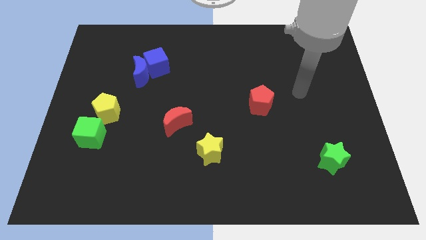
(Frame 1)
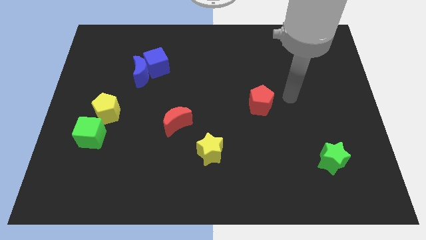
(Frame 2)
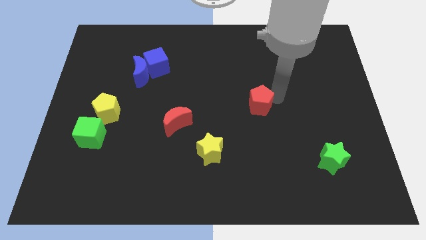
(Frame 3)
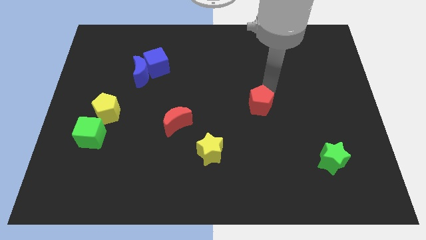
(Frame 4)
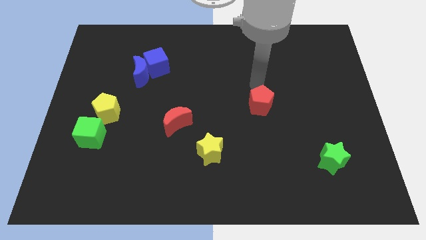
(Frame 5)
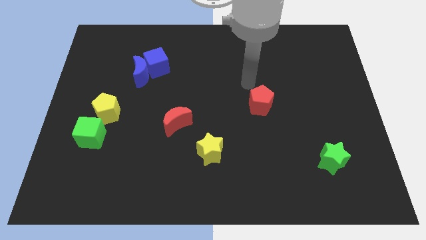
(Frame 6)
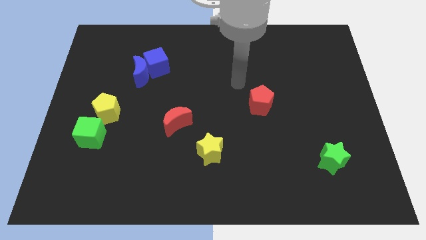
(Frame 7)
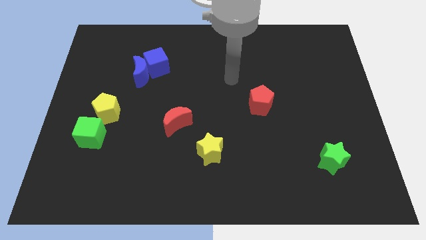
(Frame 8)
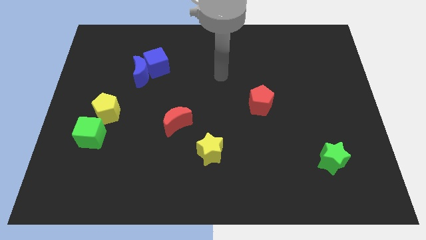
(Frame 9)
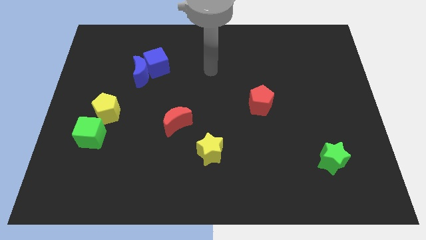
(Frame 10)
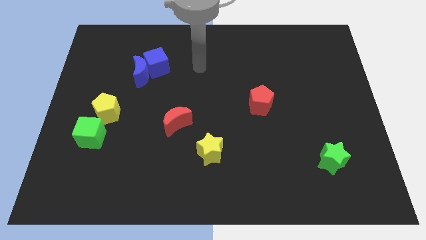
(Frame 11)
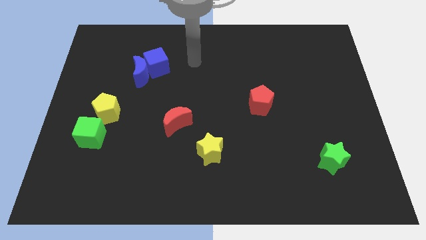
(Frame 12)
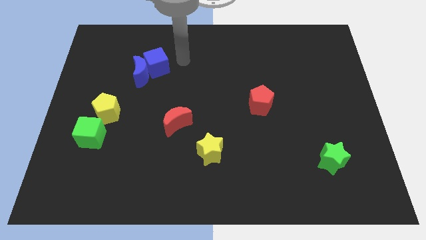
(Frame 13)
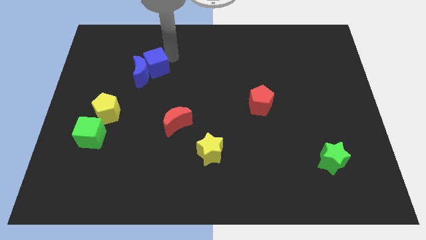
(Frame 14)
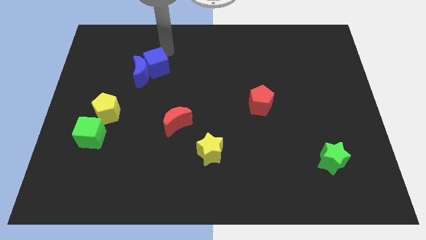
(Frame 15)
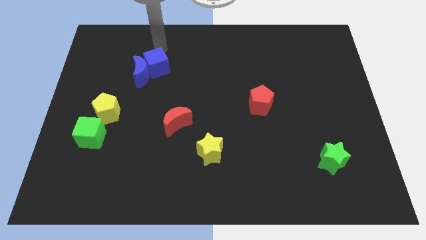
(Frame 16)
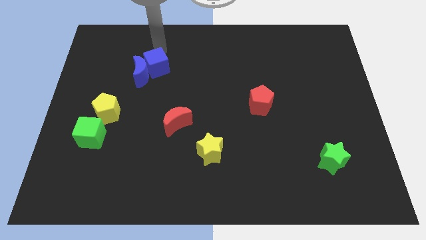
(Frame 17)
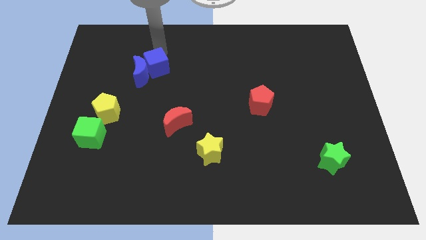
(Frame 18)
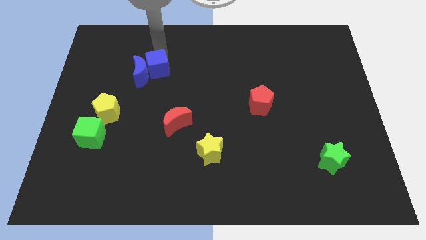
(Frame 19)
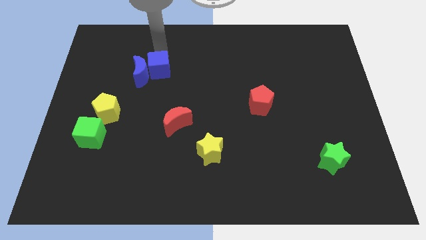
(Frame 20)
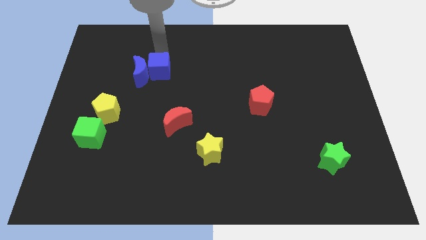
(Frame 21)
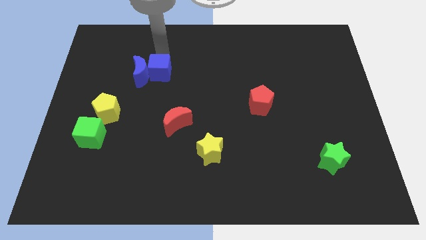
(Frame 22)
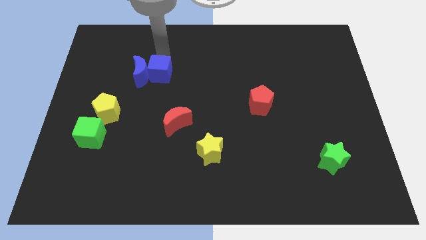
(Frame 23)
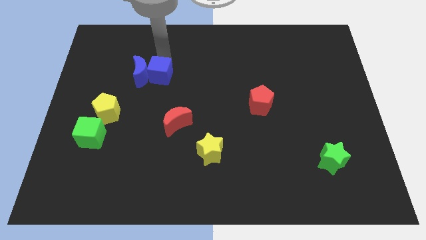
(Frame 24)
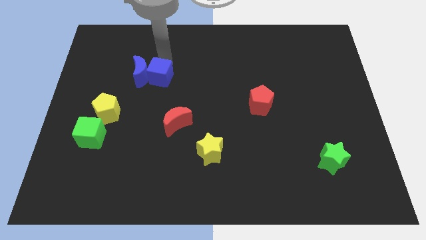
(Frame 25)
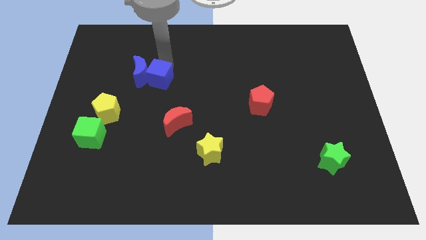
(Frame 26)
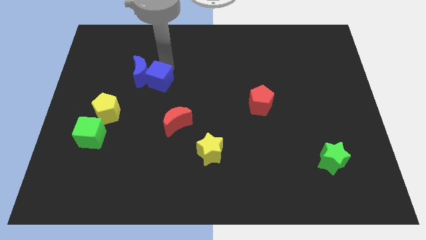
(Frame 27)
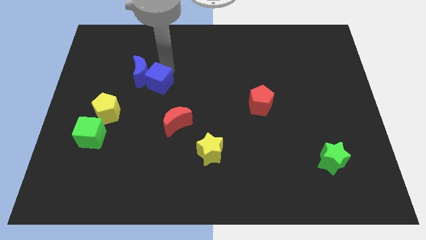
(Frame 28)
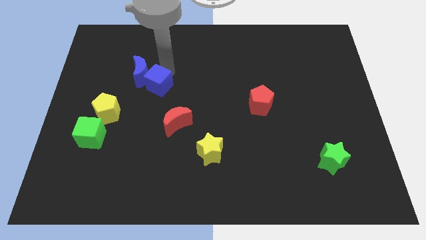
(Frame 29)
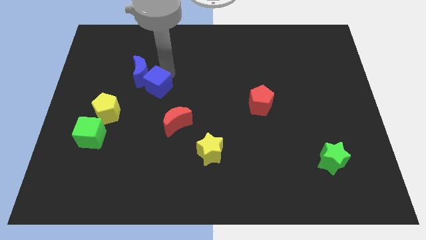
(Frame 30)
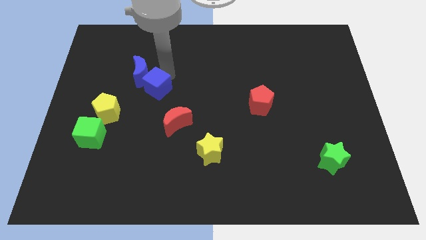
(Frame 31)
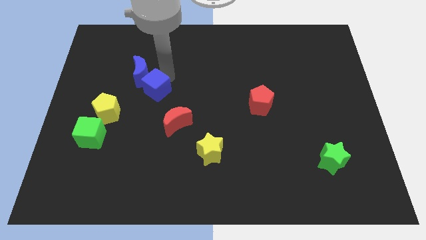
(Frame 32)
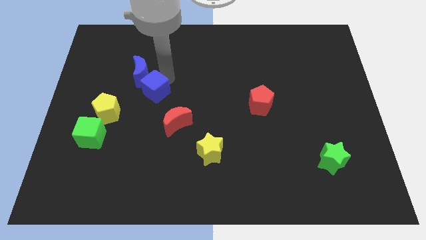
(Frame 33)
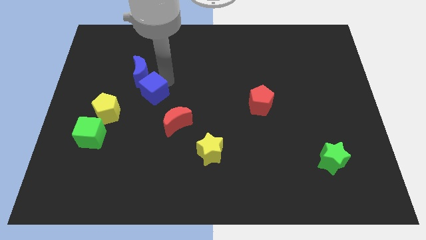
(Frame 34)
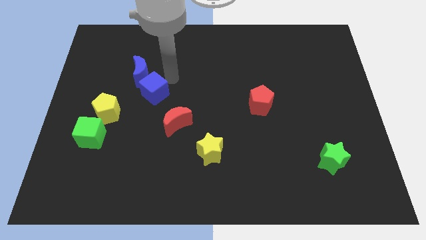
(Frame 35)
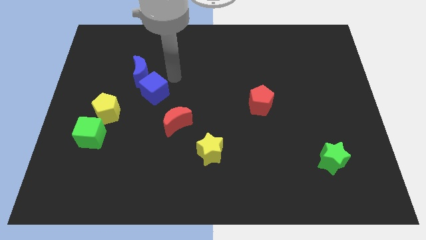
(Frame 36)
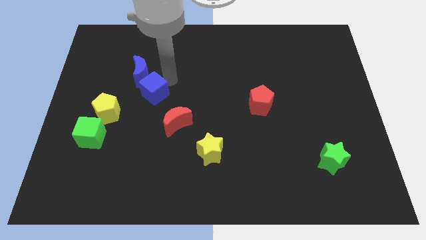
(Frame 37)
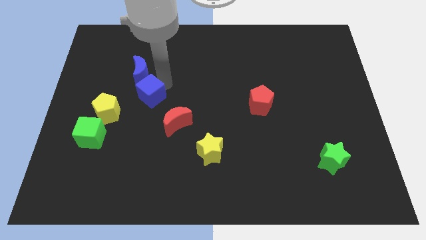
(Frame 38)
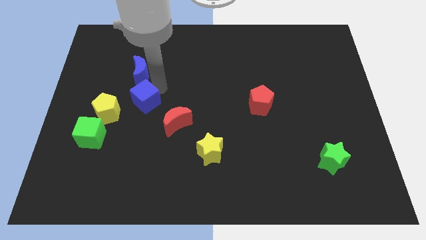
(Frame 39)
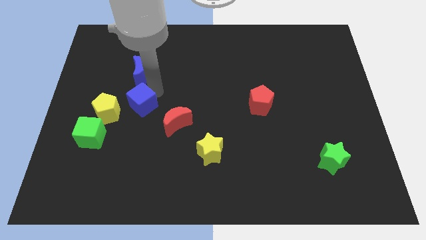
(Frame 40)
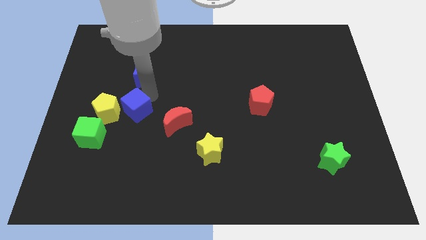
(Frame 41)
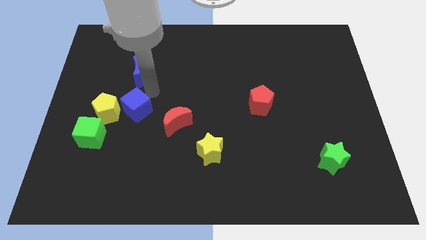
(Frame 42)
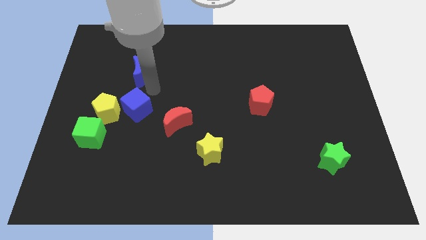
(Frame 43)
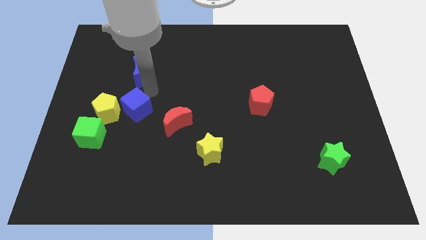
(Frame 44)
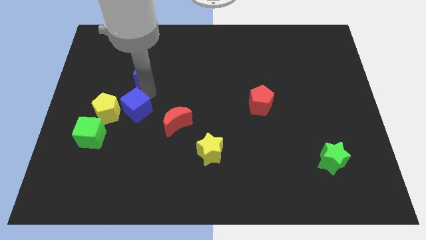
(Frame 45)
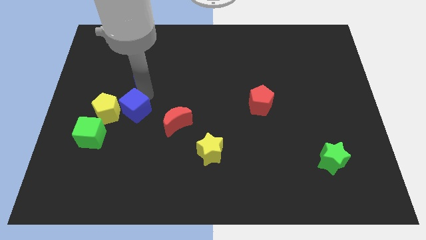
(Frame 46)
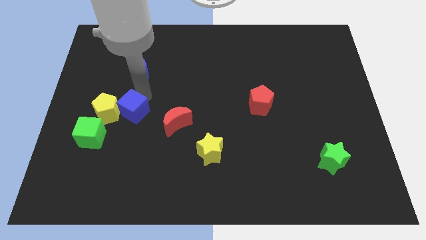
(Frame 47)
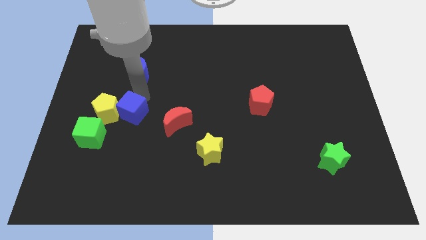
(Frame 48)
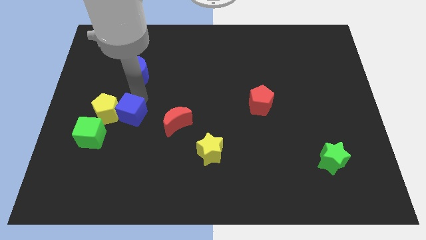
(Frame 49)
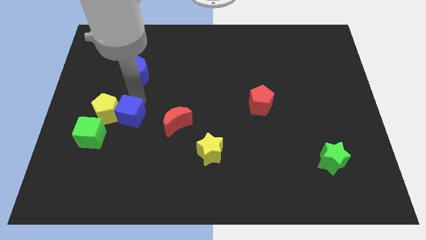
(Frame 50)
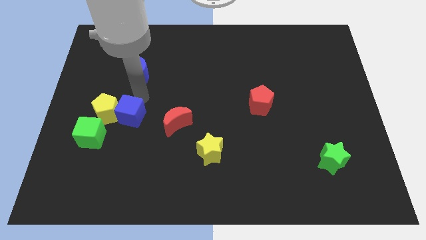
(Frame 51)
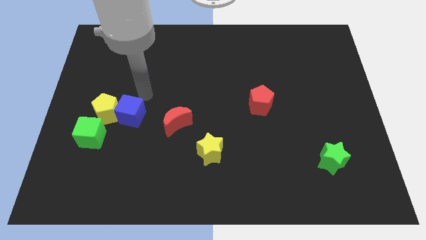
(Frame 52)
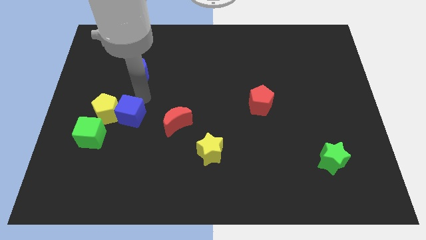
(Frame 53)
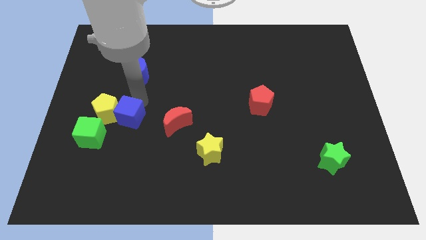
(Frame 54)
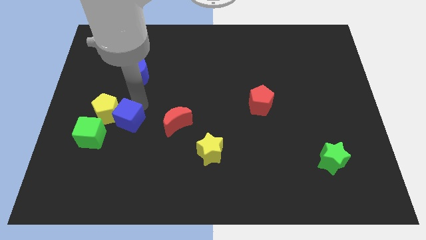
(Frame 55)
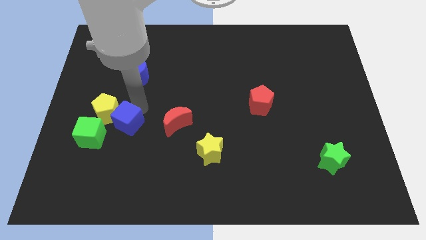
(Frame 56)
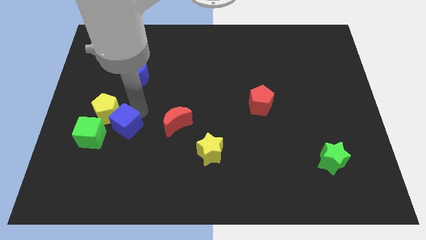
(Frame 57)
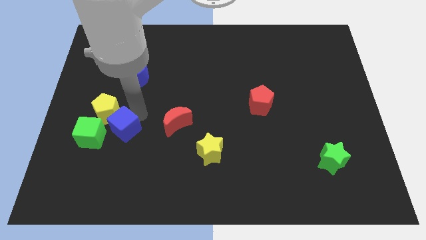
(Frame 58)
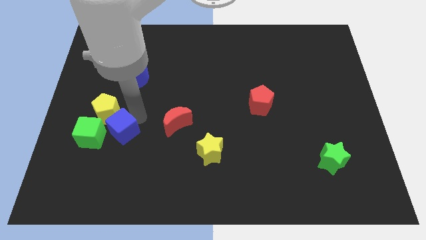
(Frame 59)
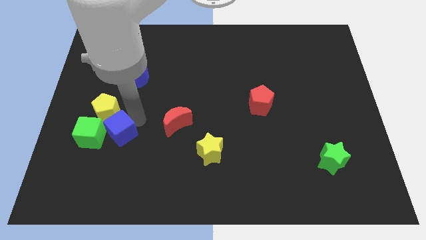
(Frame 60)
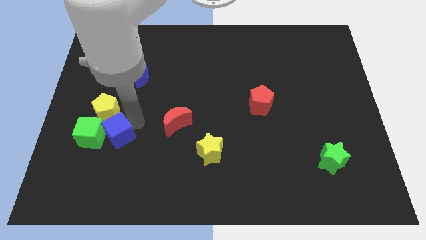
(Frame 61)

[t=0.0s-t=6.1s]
put the blue cube towards the green cube
